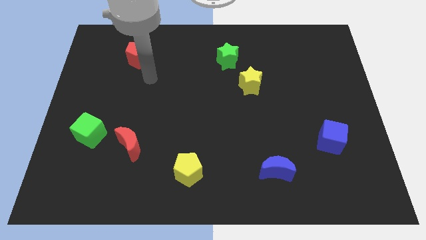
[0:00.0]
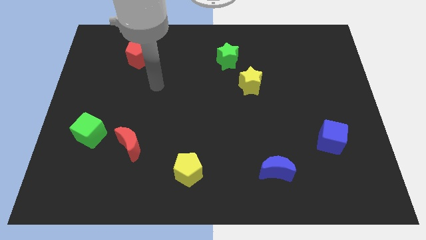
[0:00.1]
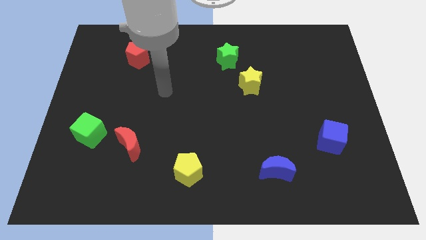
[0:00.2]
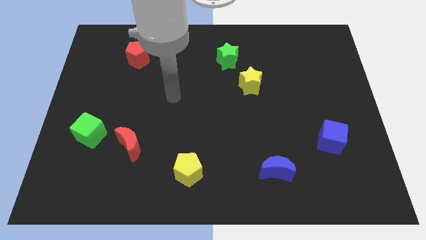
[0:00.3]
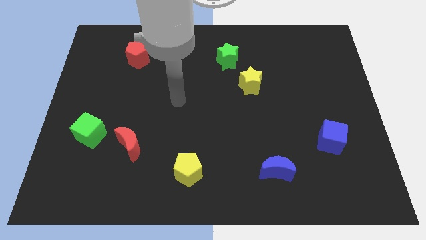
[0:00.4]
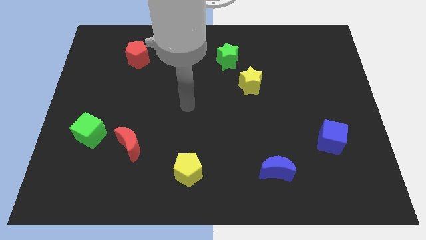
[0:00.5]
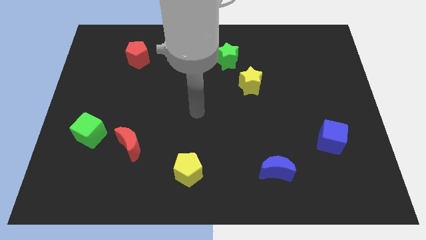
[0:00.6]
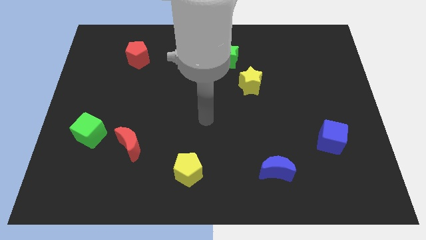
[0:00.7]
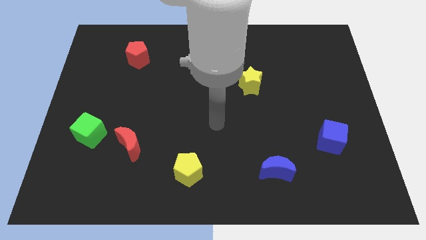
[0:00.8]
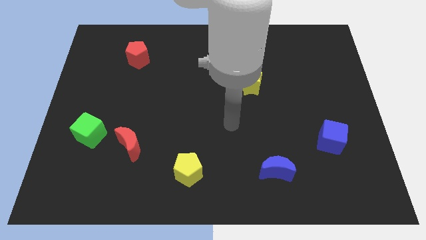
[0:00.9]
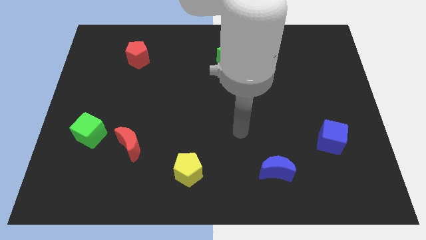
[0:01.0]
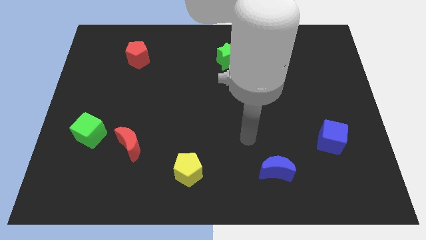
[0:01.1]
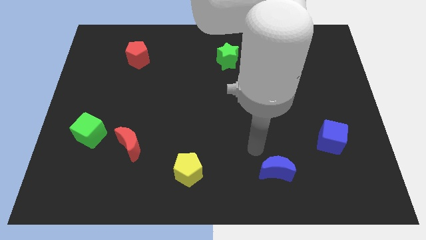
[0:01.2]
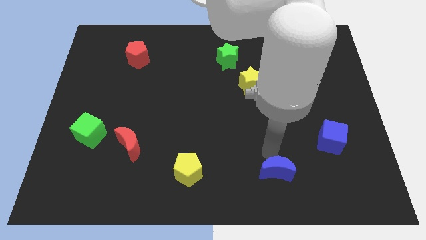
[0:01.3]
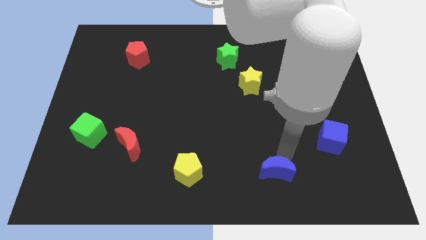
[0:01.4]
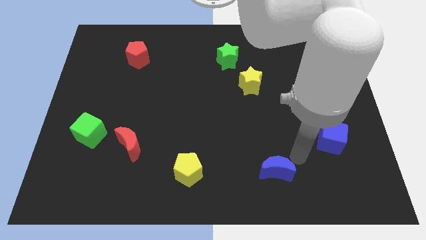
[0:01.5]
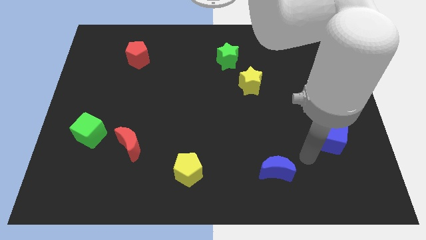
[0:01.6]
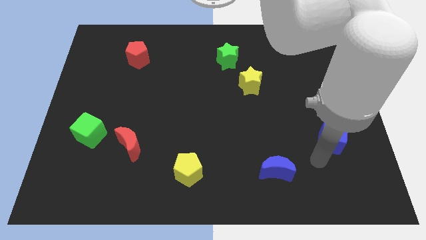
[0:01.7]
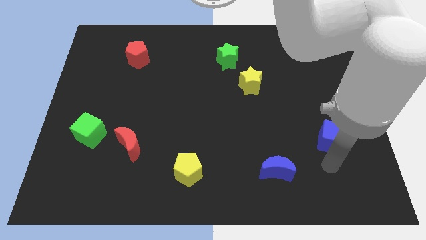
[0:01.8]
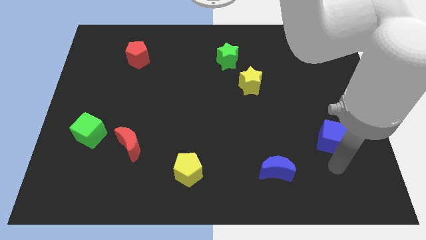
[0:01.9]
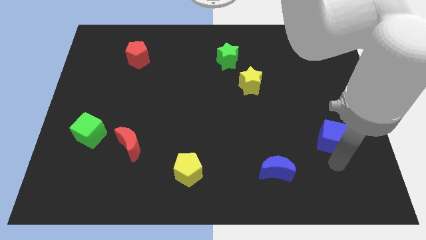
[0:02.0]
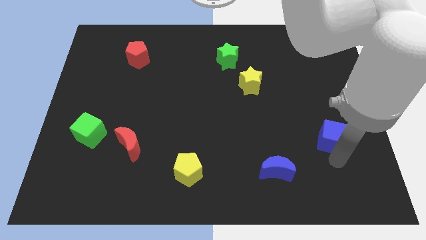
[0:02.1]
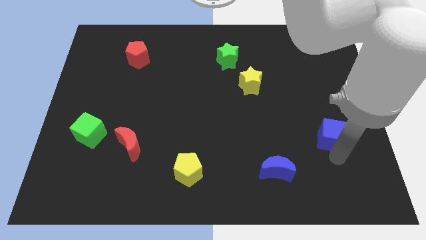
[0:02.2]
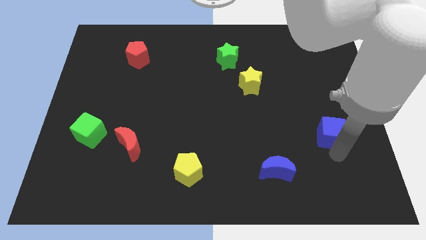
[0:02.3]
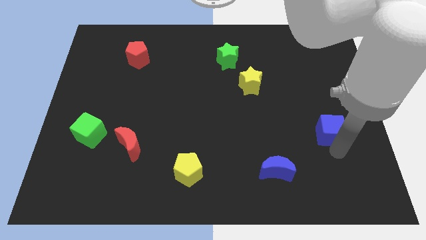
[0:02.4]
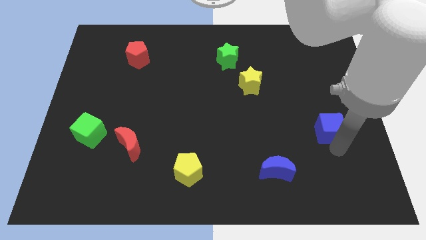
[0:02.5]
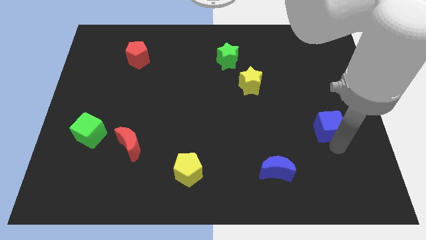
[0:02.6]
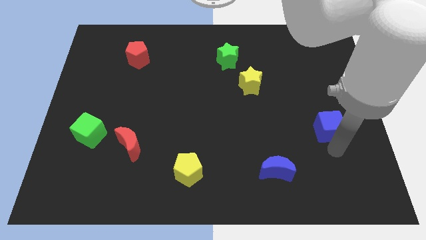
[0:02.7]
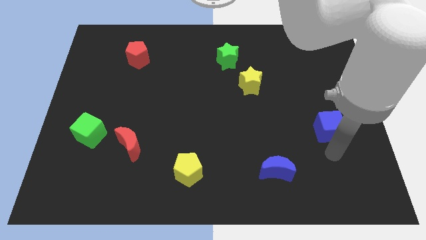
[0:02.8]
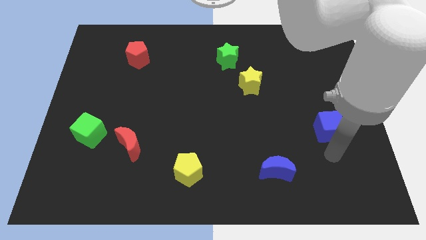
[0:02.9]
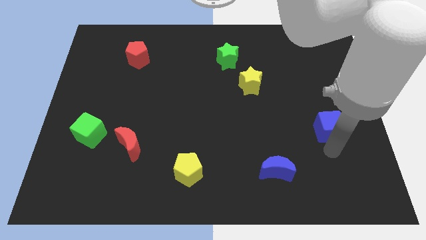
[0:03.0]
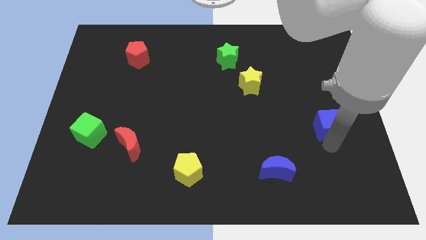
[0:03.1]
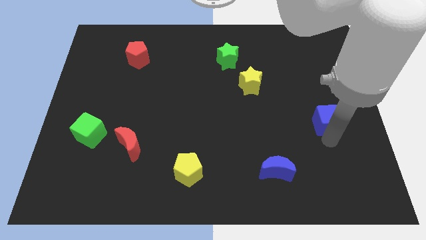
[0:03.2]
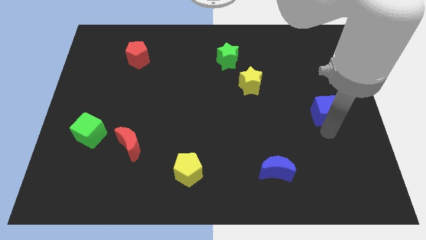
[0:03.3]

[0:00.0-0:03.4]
slide the blue cube upwards a little

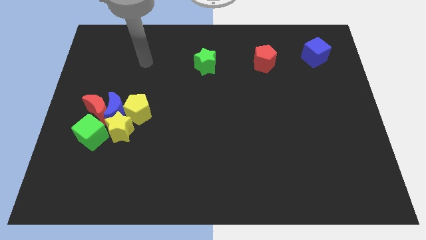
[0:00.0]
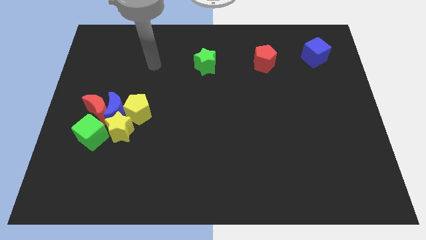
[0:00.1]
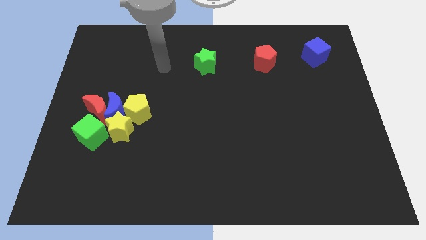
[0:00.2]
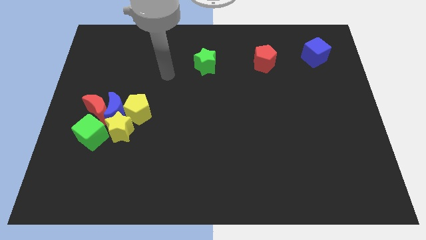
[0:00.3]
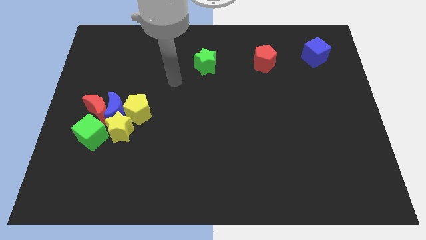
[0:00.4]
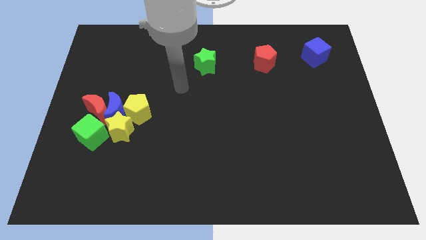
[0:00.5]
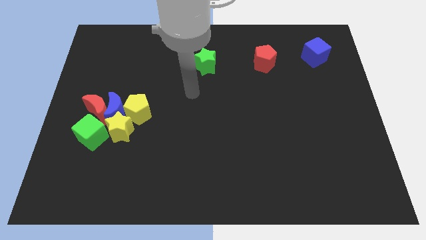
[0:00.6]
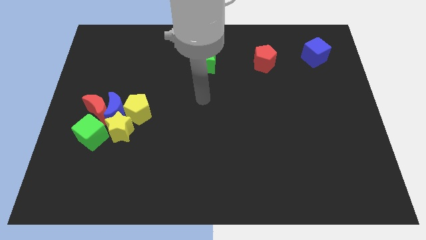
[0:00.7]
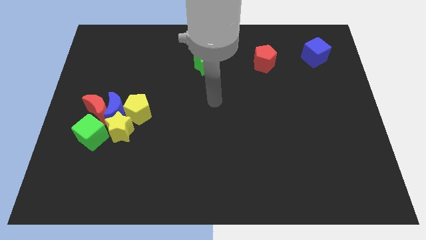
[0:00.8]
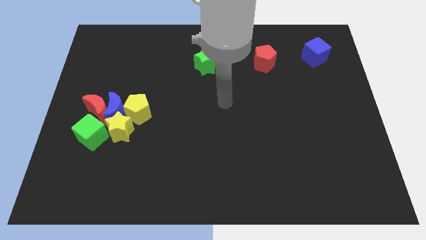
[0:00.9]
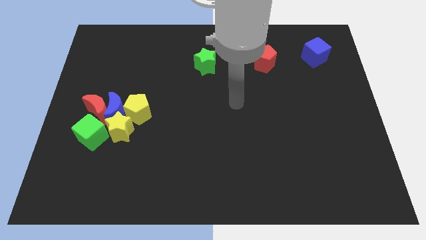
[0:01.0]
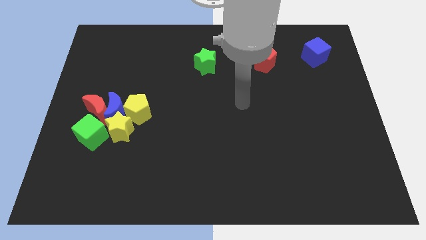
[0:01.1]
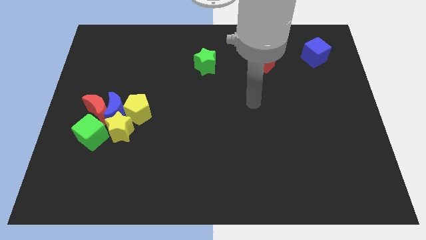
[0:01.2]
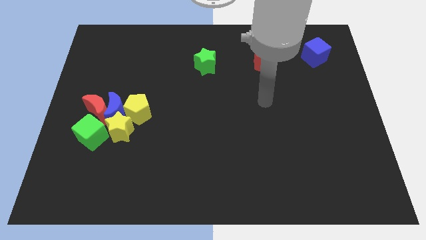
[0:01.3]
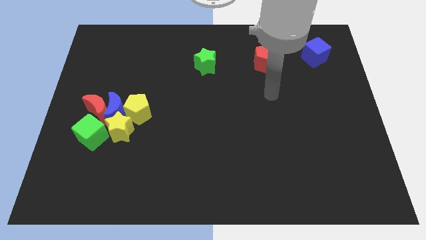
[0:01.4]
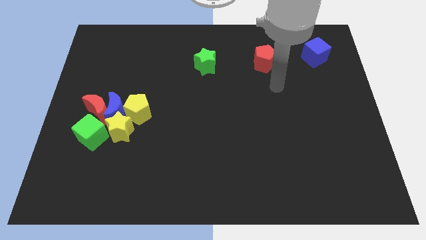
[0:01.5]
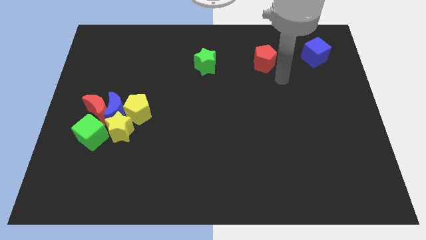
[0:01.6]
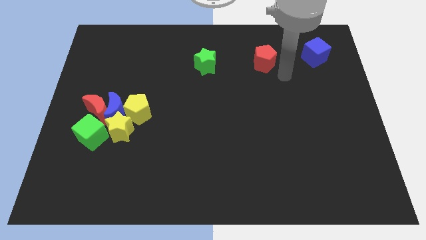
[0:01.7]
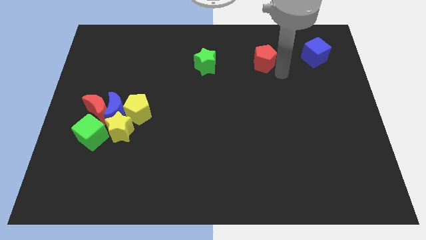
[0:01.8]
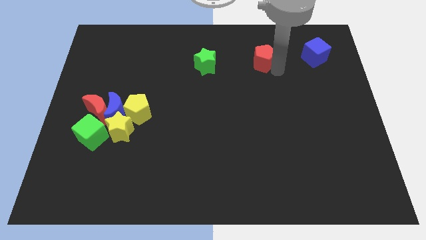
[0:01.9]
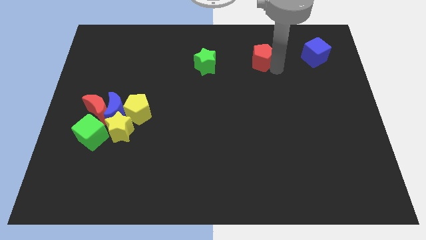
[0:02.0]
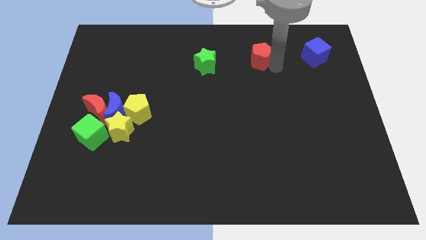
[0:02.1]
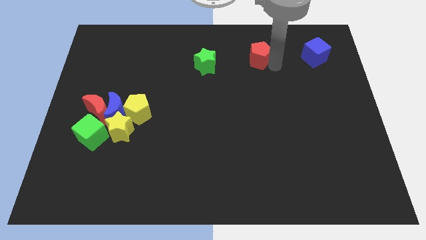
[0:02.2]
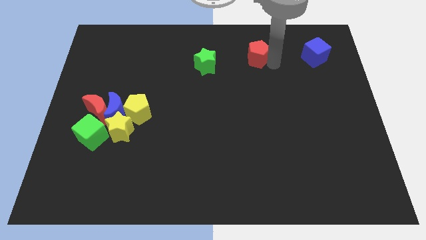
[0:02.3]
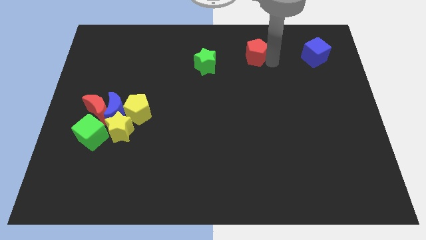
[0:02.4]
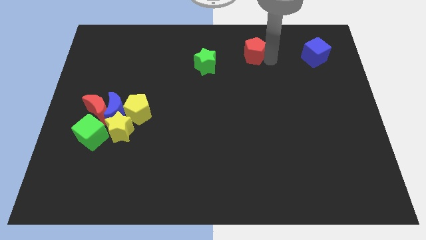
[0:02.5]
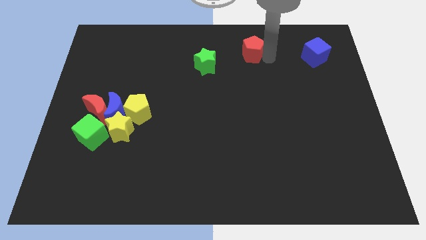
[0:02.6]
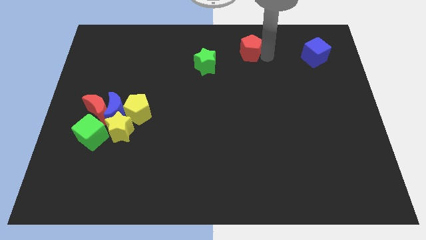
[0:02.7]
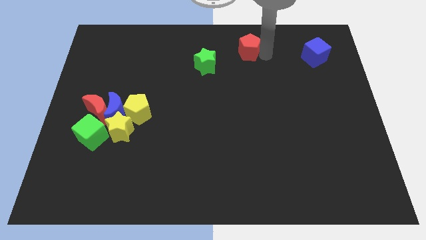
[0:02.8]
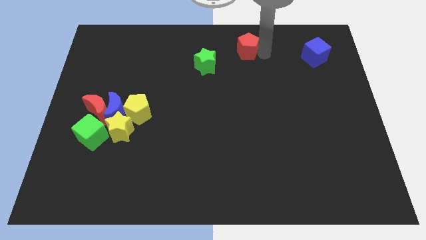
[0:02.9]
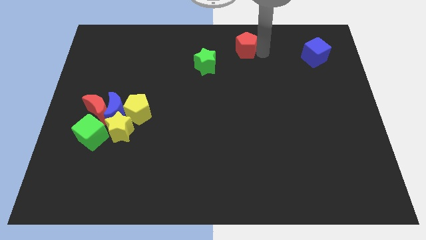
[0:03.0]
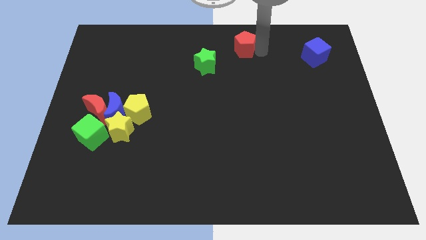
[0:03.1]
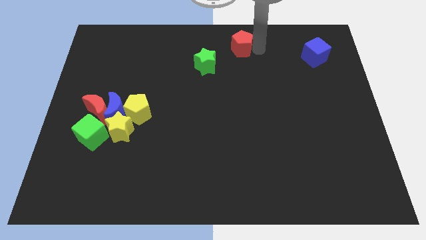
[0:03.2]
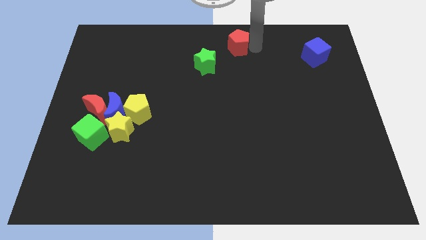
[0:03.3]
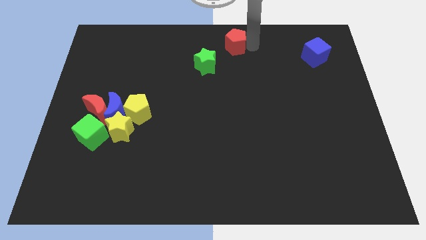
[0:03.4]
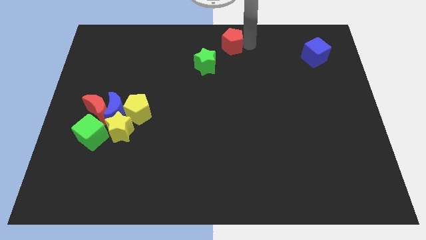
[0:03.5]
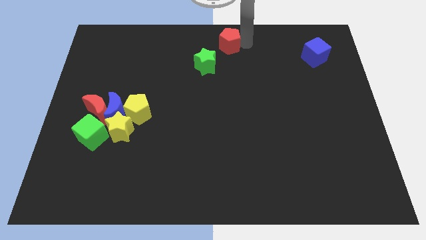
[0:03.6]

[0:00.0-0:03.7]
slightly slide the red pentagon left

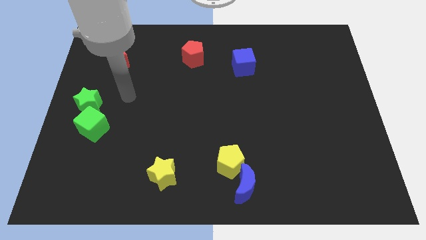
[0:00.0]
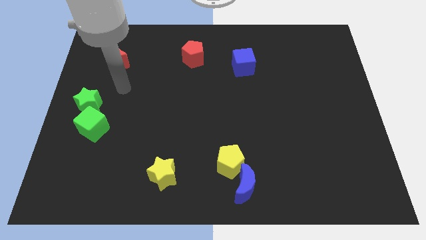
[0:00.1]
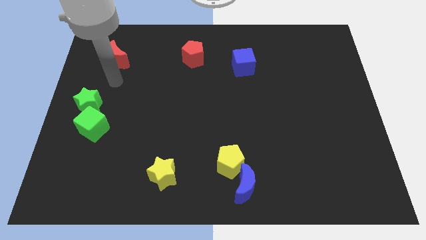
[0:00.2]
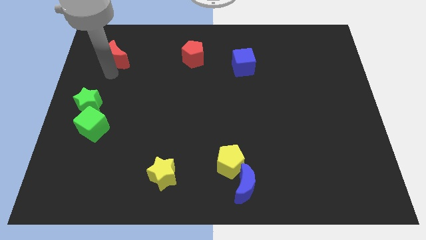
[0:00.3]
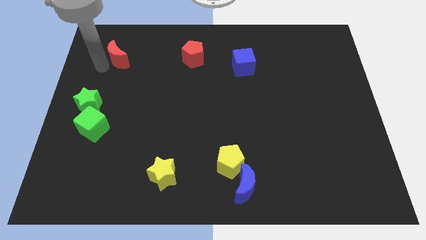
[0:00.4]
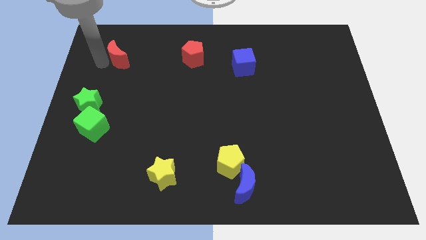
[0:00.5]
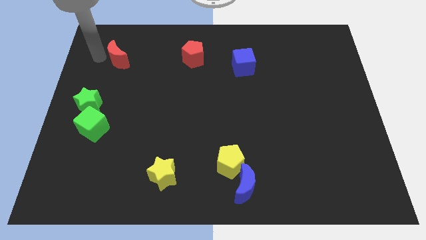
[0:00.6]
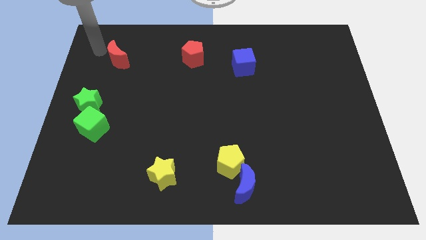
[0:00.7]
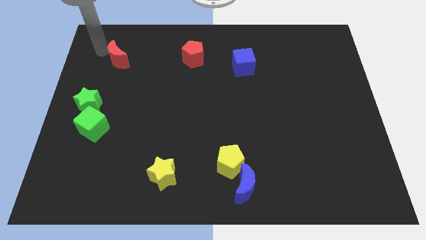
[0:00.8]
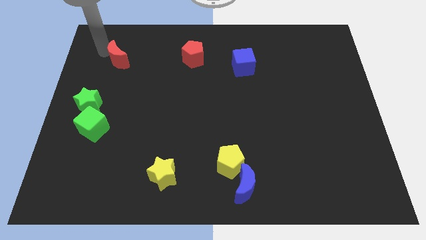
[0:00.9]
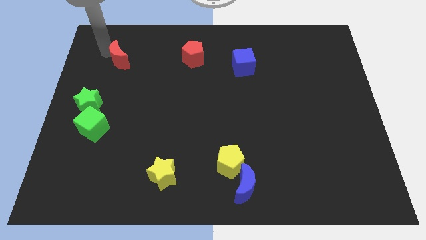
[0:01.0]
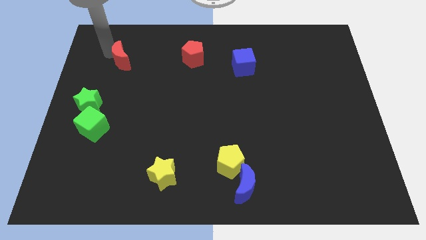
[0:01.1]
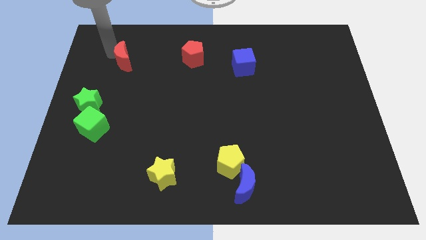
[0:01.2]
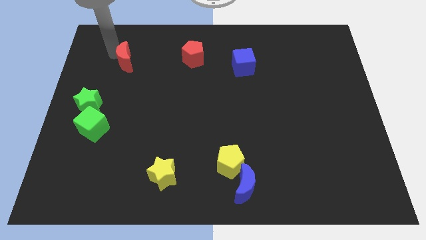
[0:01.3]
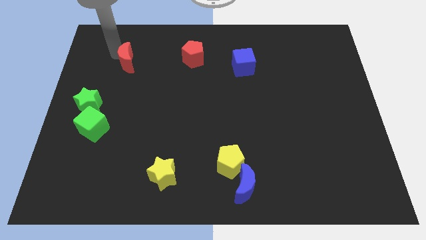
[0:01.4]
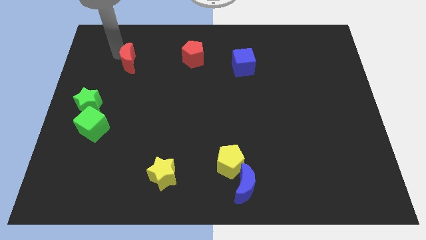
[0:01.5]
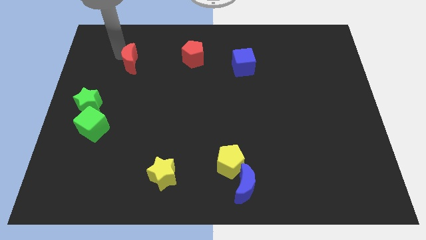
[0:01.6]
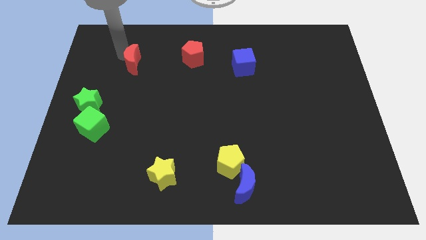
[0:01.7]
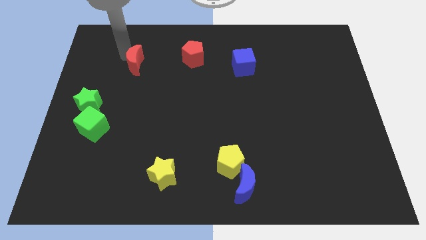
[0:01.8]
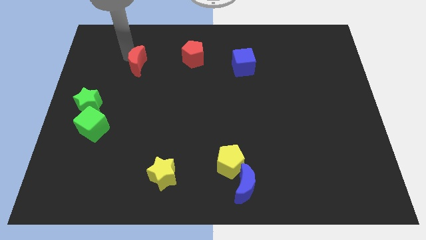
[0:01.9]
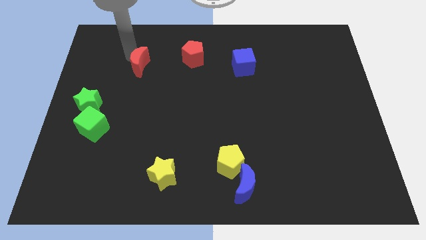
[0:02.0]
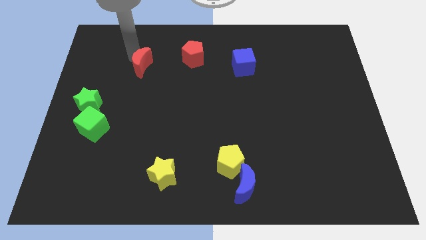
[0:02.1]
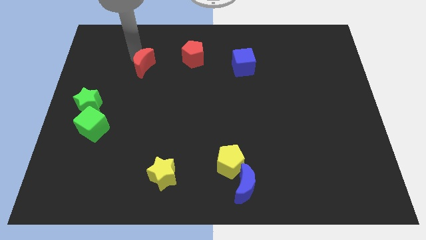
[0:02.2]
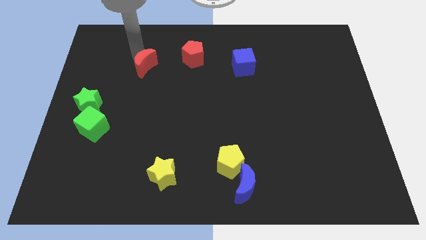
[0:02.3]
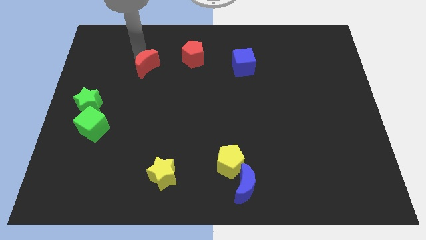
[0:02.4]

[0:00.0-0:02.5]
move the red moon somewhat diagonally downwards and to the right
